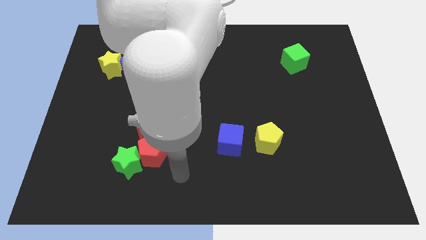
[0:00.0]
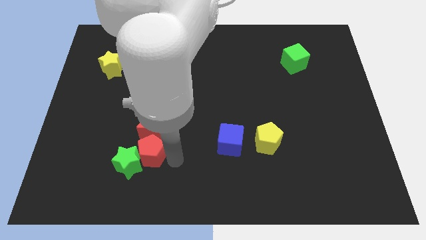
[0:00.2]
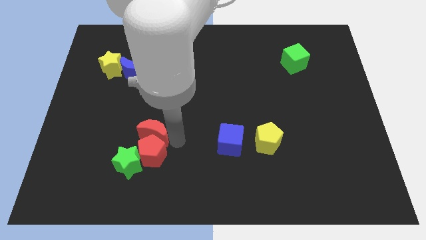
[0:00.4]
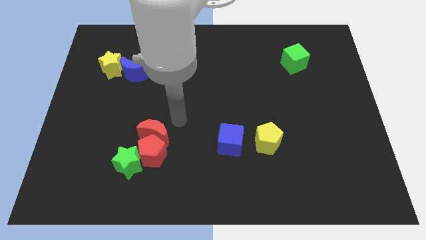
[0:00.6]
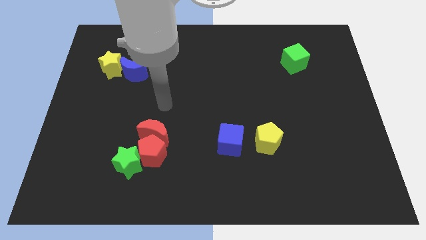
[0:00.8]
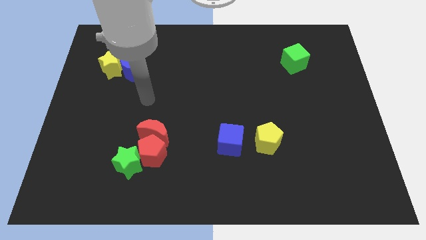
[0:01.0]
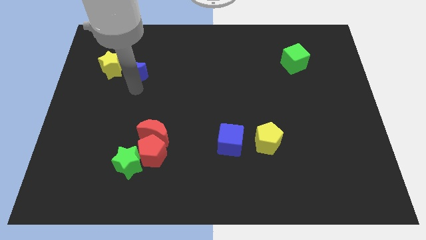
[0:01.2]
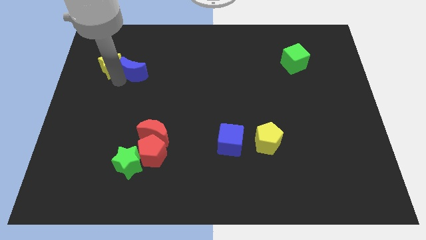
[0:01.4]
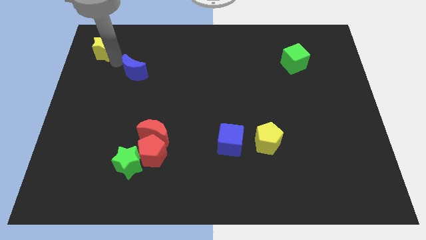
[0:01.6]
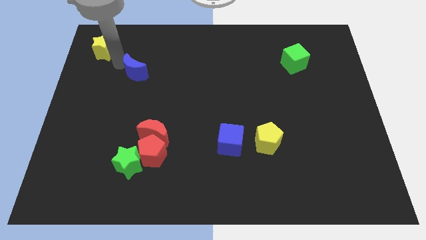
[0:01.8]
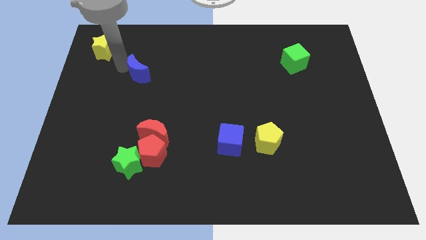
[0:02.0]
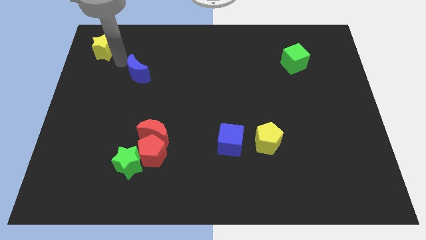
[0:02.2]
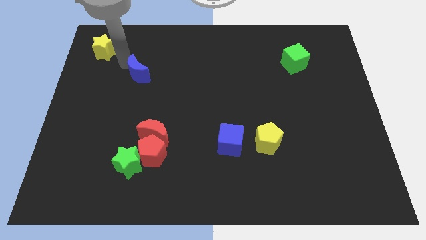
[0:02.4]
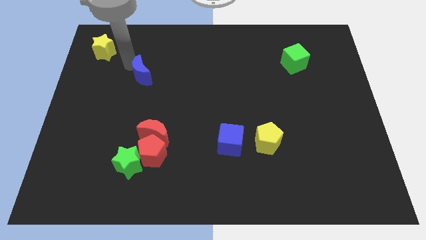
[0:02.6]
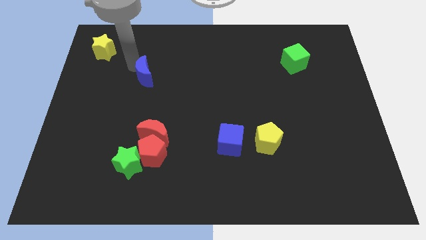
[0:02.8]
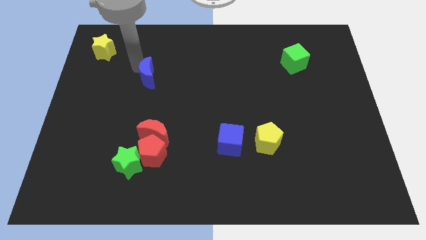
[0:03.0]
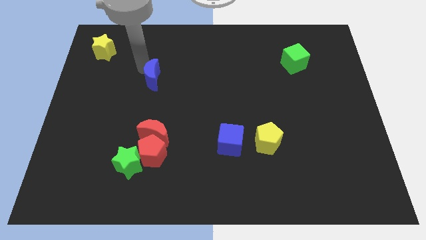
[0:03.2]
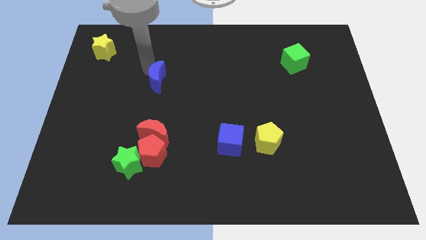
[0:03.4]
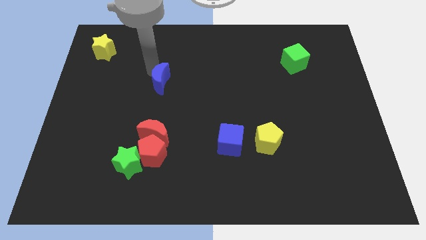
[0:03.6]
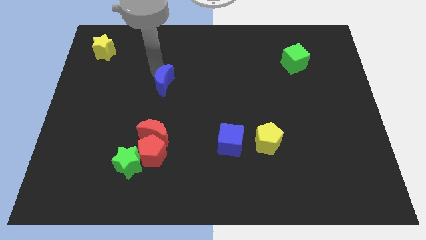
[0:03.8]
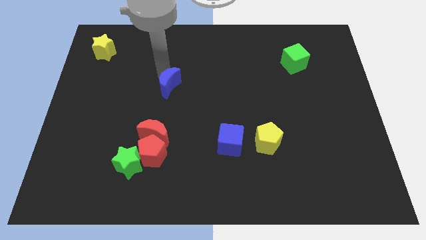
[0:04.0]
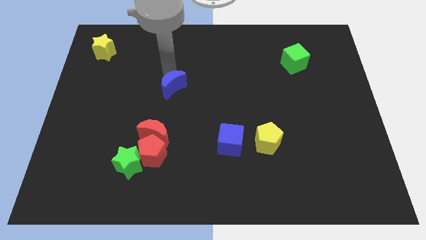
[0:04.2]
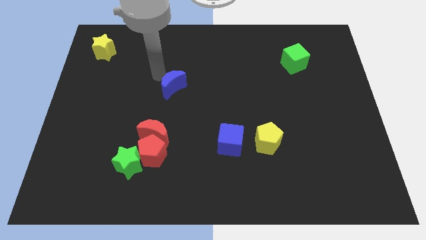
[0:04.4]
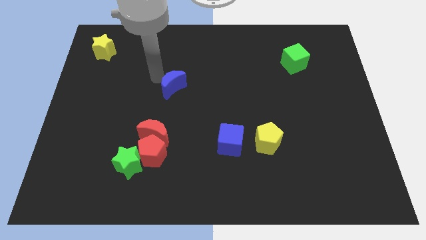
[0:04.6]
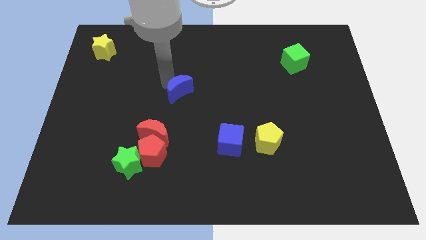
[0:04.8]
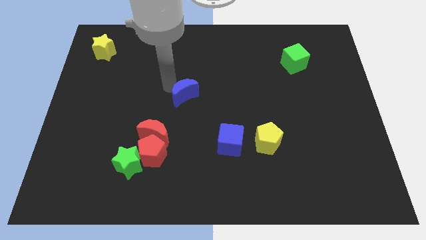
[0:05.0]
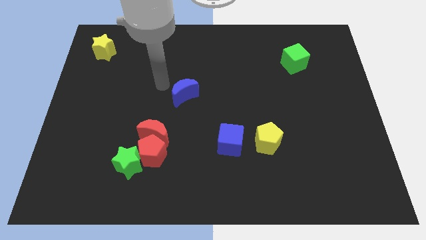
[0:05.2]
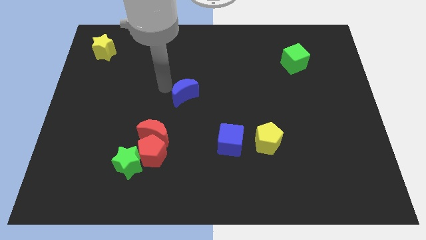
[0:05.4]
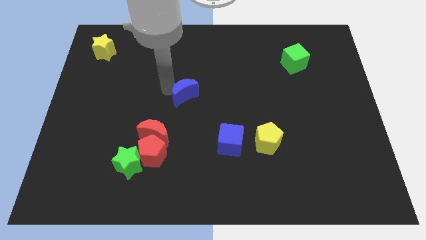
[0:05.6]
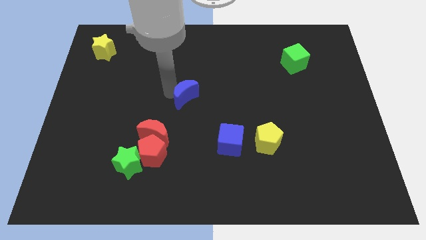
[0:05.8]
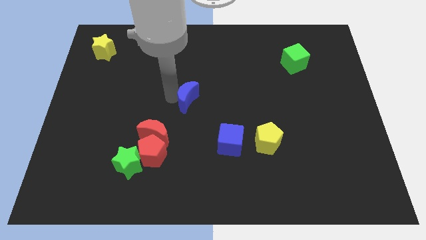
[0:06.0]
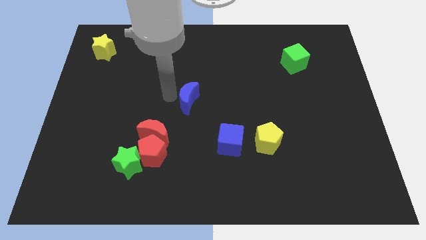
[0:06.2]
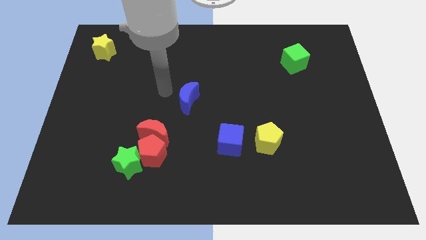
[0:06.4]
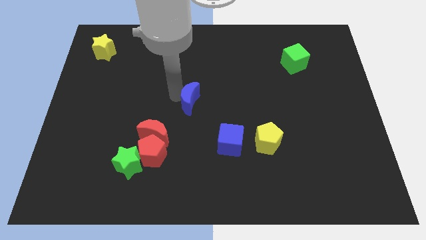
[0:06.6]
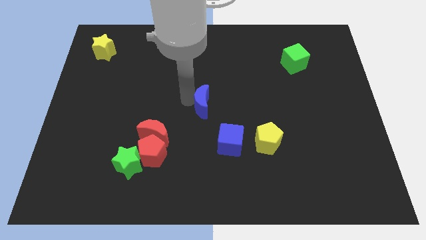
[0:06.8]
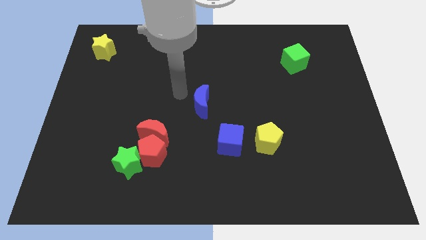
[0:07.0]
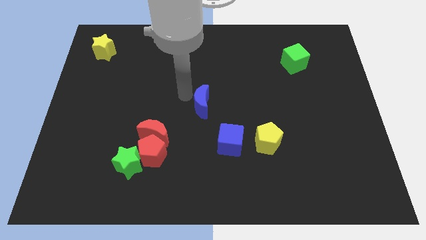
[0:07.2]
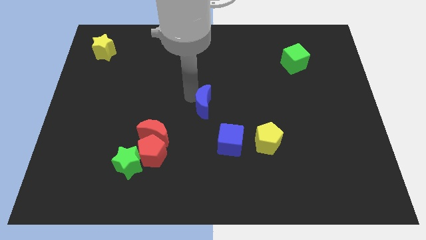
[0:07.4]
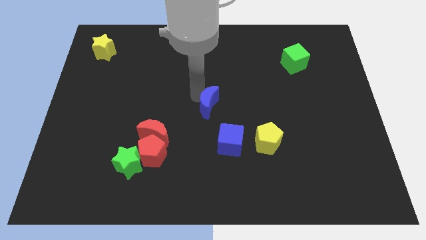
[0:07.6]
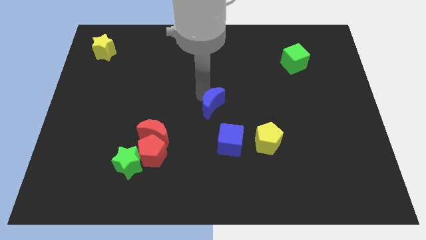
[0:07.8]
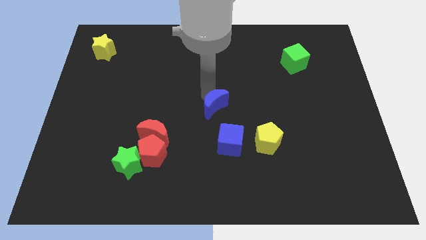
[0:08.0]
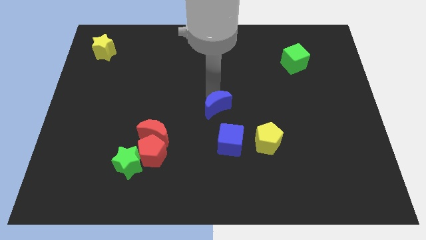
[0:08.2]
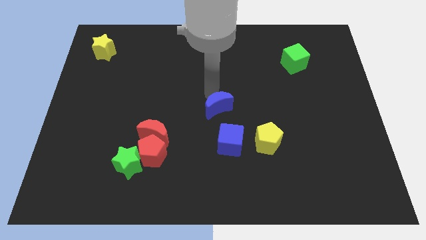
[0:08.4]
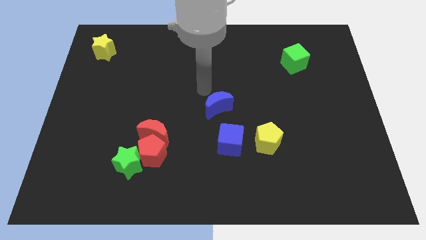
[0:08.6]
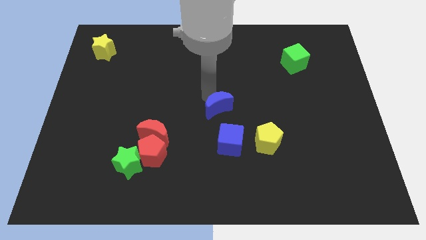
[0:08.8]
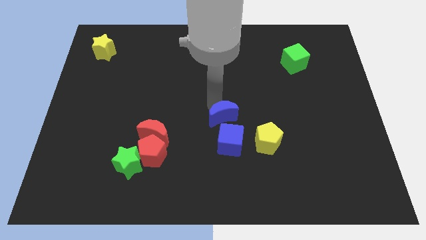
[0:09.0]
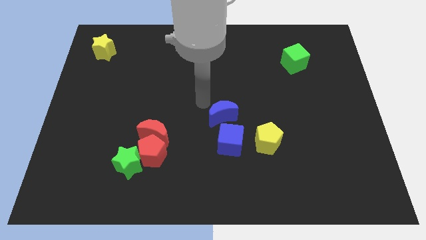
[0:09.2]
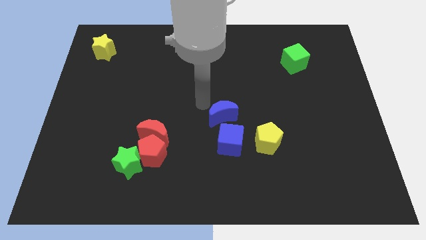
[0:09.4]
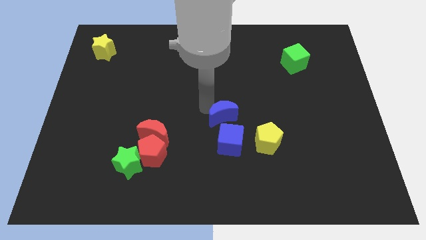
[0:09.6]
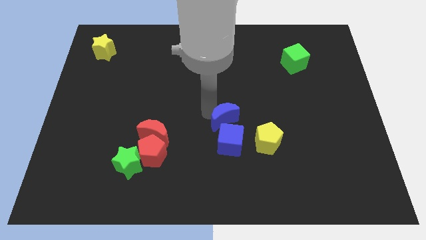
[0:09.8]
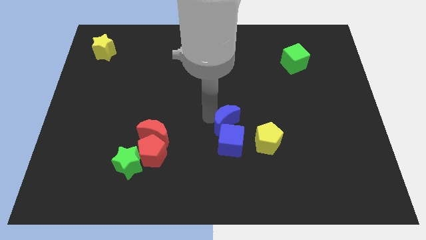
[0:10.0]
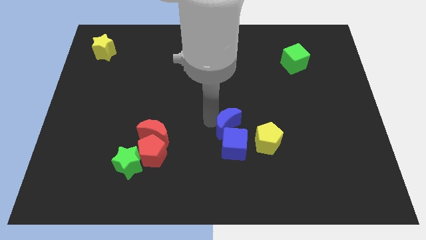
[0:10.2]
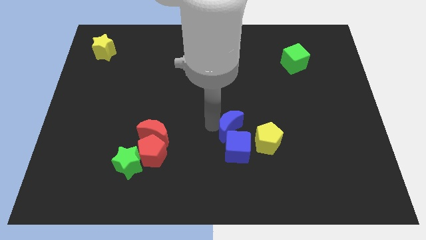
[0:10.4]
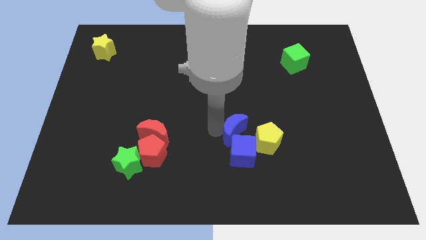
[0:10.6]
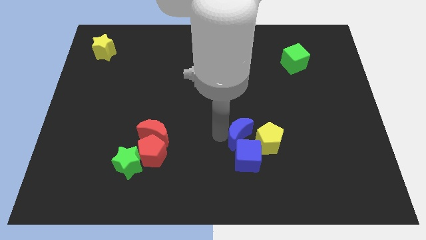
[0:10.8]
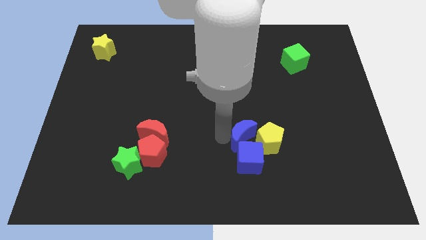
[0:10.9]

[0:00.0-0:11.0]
push the blue moon next to the yellow pentagon

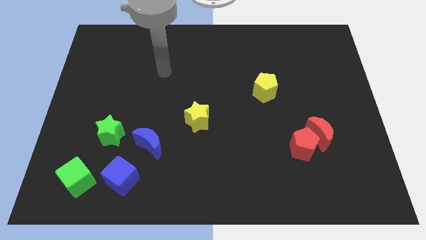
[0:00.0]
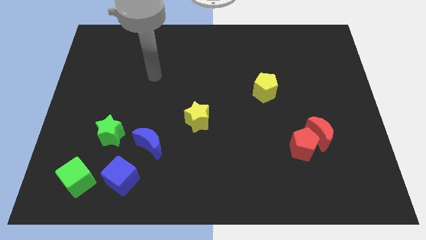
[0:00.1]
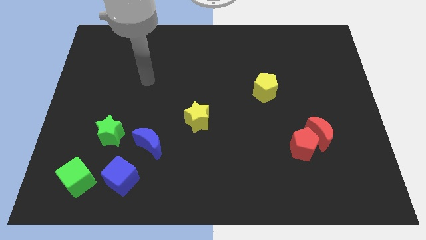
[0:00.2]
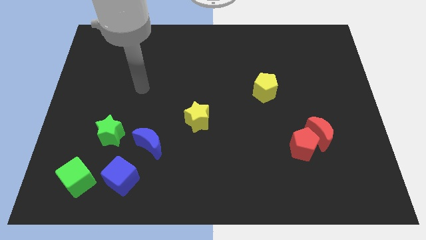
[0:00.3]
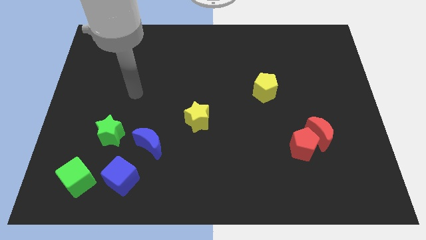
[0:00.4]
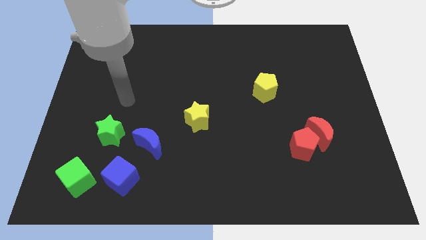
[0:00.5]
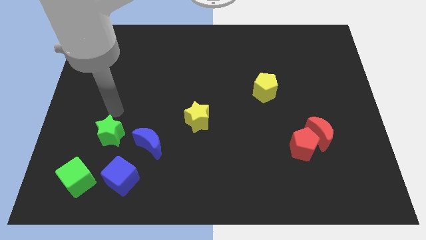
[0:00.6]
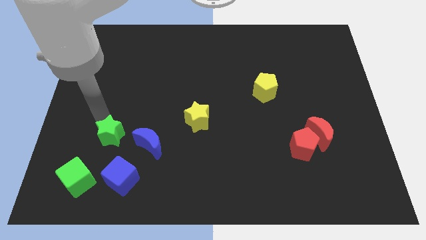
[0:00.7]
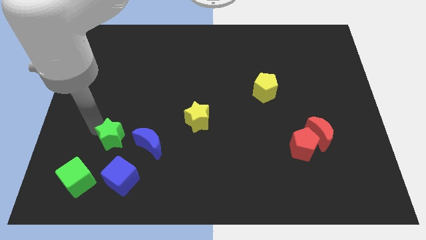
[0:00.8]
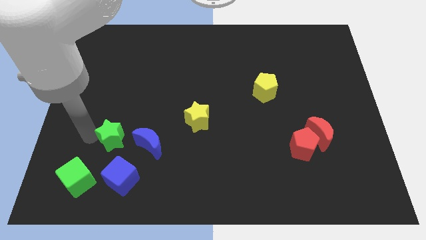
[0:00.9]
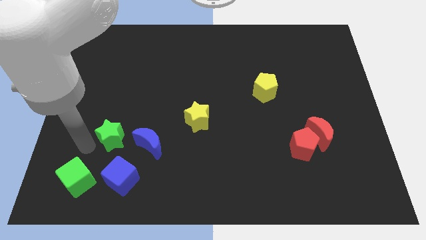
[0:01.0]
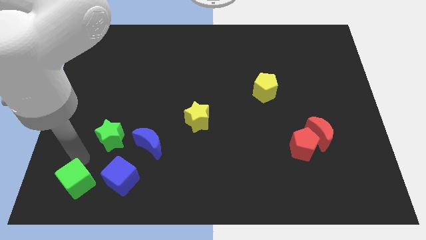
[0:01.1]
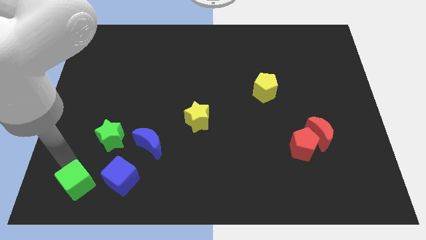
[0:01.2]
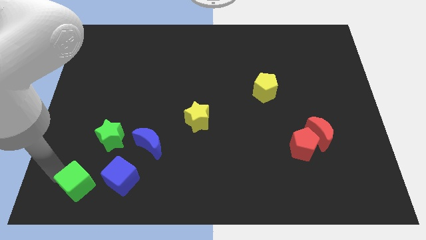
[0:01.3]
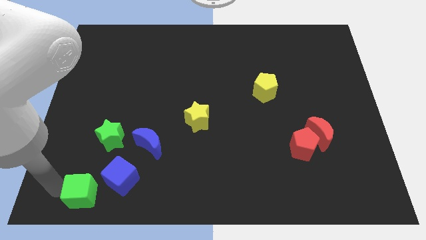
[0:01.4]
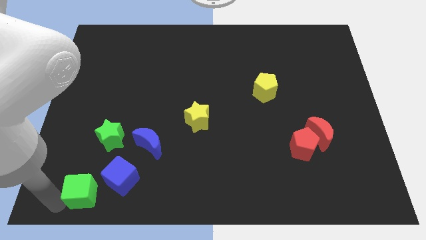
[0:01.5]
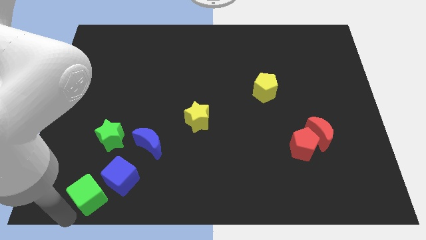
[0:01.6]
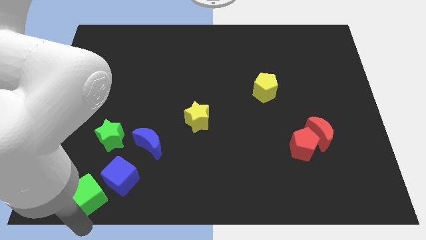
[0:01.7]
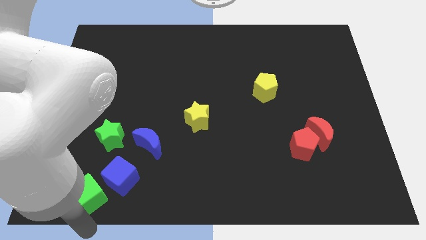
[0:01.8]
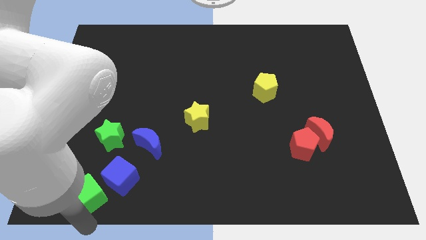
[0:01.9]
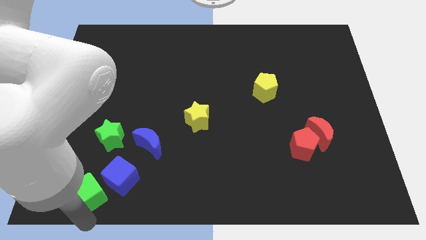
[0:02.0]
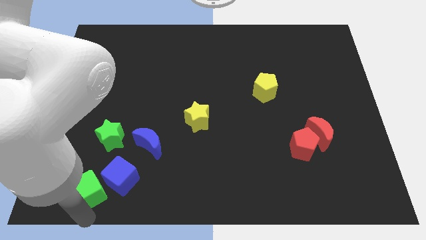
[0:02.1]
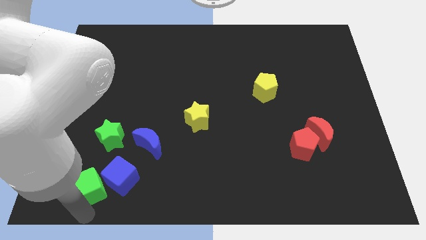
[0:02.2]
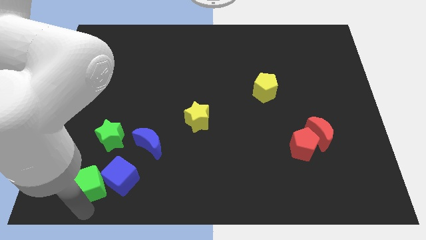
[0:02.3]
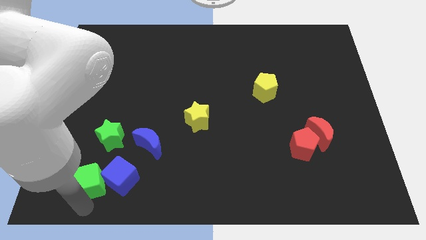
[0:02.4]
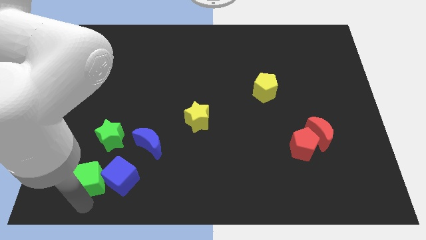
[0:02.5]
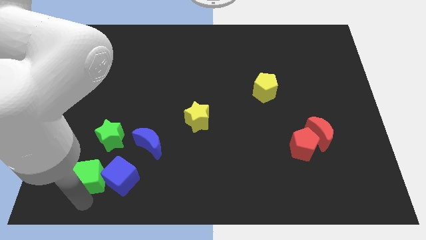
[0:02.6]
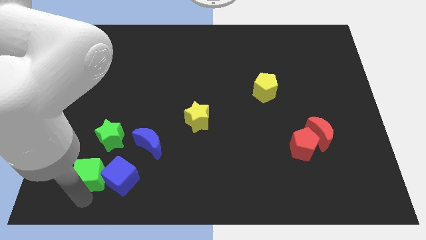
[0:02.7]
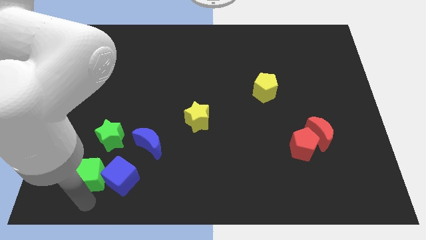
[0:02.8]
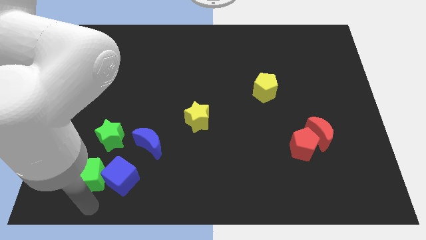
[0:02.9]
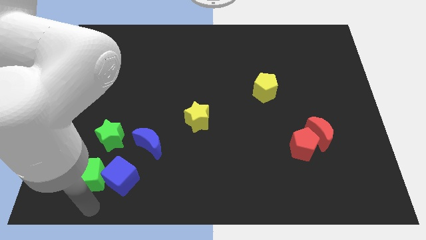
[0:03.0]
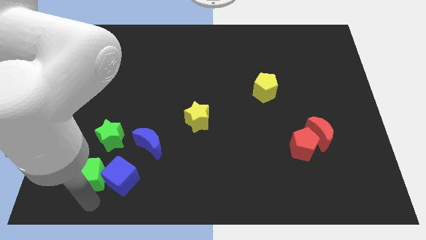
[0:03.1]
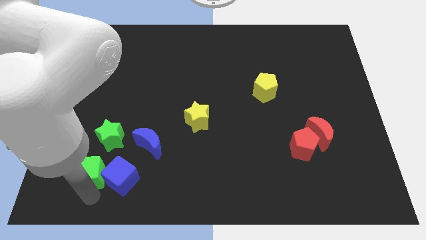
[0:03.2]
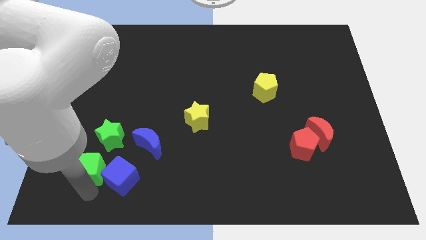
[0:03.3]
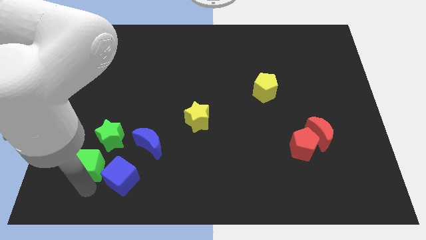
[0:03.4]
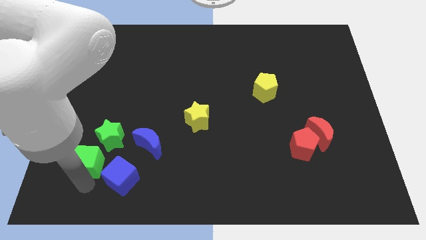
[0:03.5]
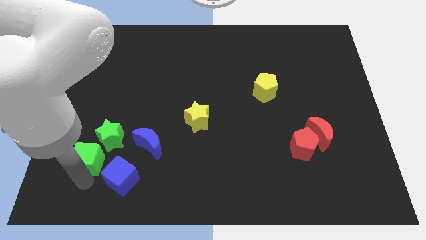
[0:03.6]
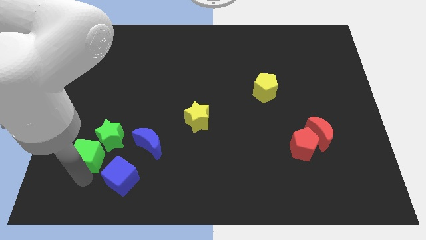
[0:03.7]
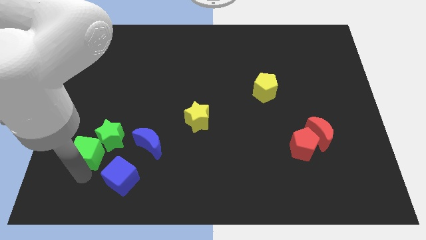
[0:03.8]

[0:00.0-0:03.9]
push the green cube close to the green star
